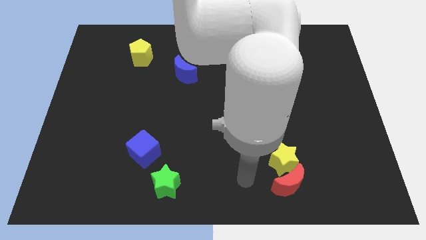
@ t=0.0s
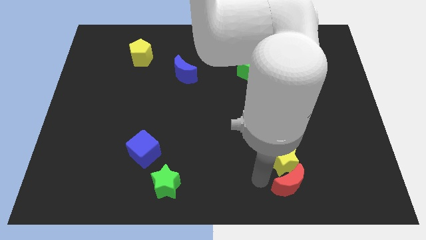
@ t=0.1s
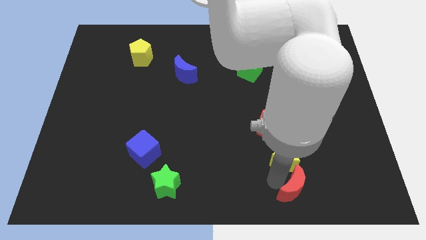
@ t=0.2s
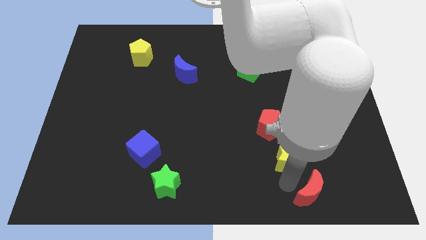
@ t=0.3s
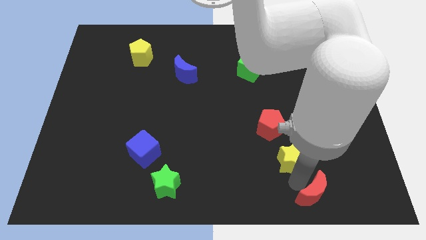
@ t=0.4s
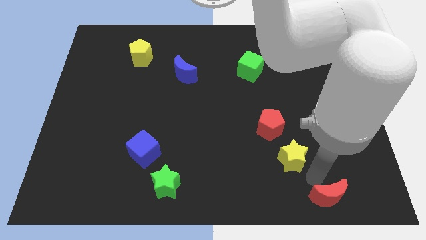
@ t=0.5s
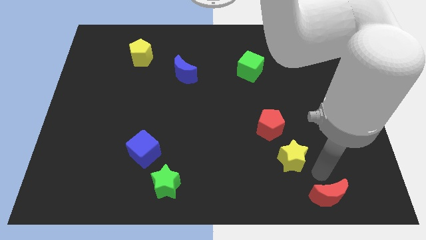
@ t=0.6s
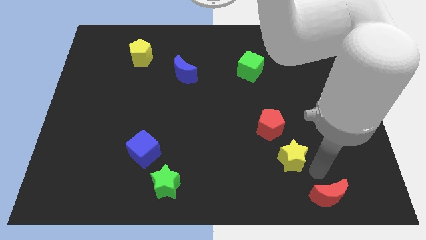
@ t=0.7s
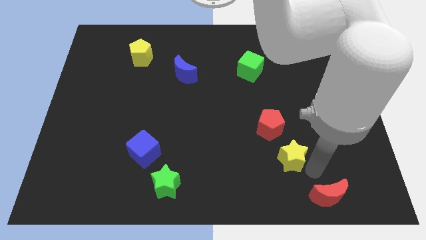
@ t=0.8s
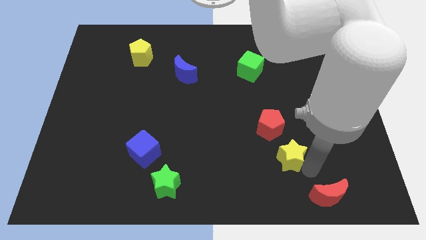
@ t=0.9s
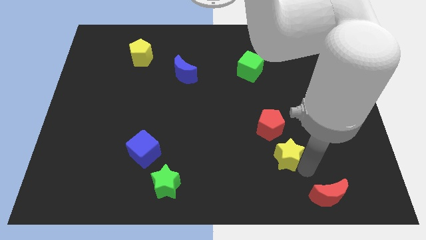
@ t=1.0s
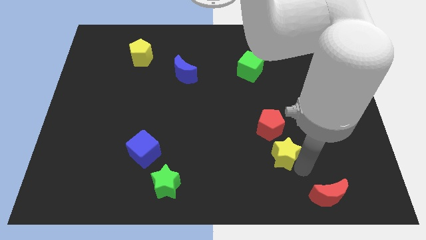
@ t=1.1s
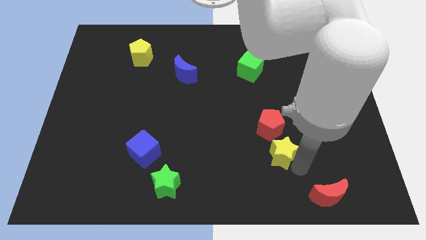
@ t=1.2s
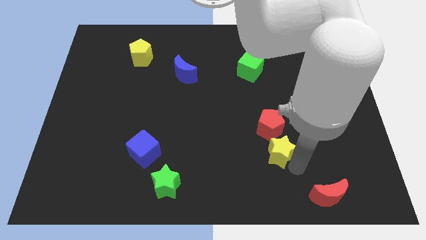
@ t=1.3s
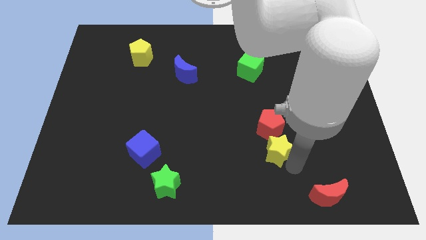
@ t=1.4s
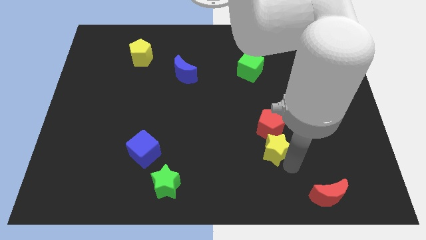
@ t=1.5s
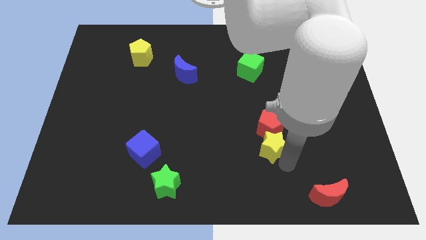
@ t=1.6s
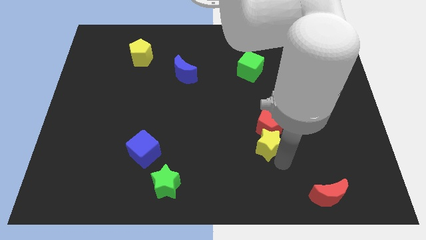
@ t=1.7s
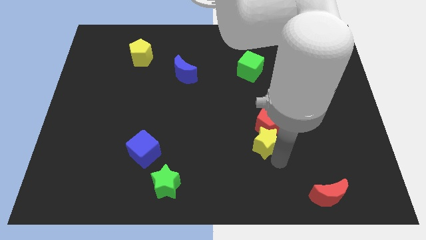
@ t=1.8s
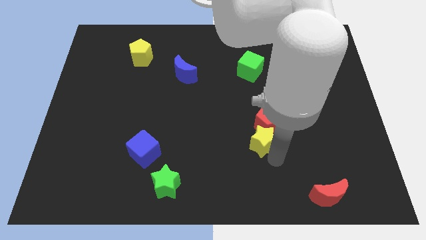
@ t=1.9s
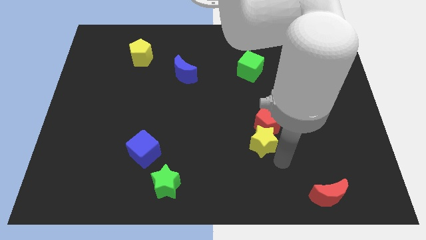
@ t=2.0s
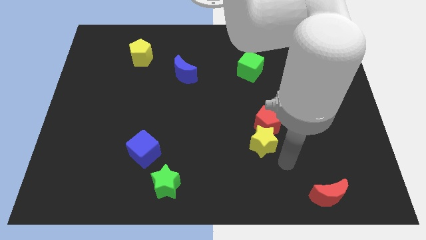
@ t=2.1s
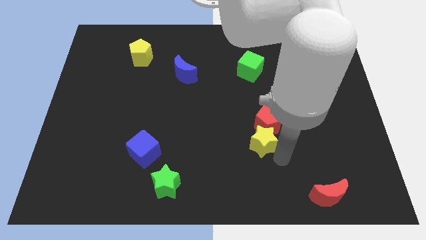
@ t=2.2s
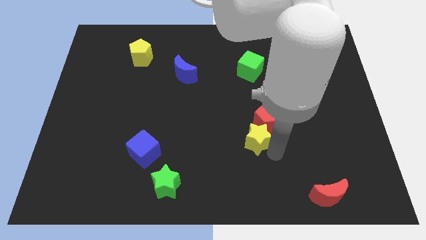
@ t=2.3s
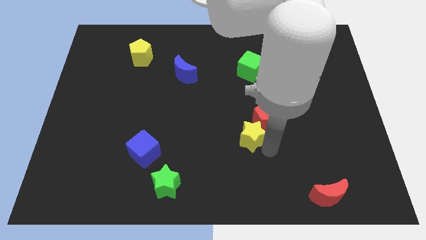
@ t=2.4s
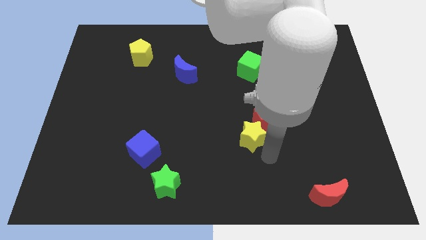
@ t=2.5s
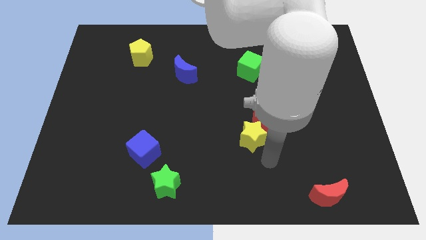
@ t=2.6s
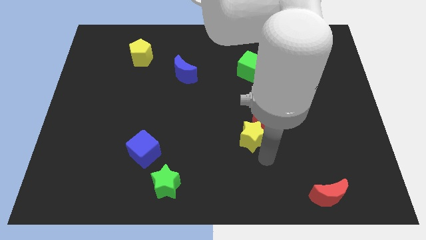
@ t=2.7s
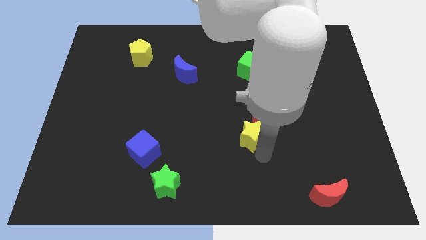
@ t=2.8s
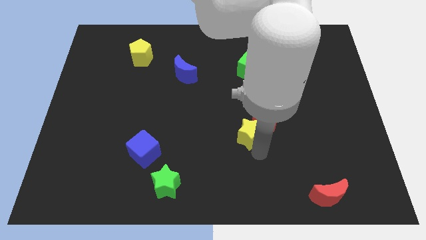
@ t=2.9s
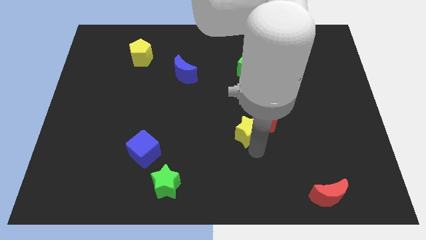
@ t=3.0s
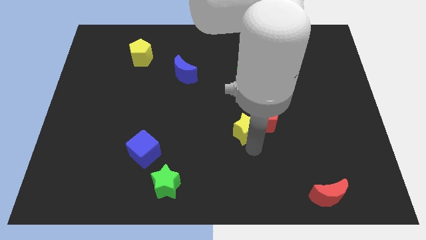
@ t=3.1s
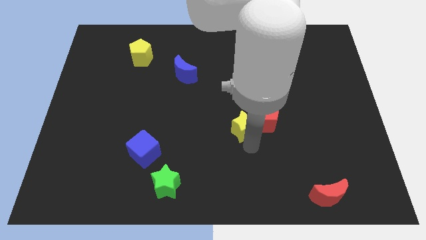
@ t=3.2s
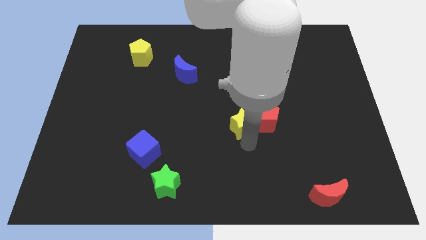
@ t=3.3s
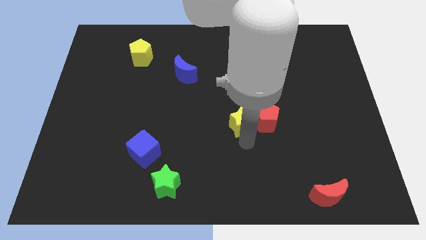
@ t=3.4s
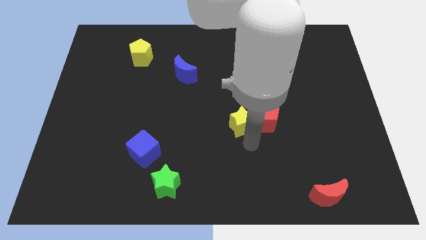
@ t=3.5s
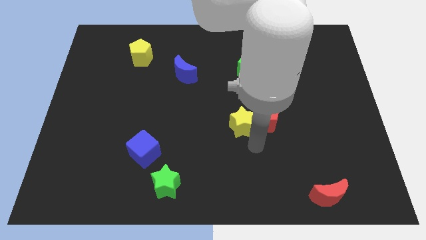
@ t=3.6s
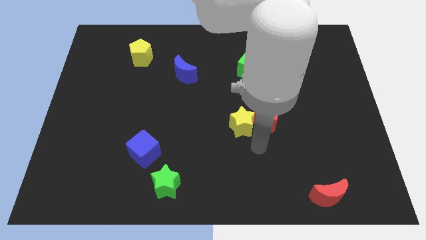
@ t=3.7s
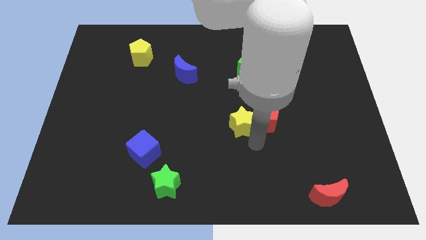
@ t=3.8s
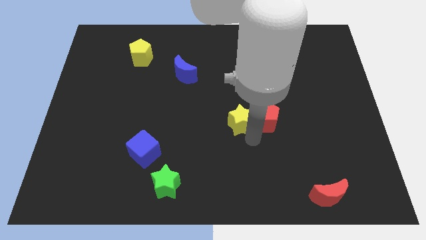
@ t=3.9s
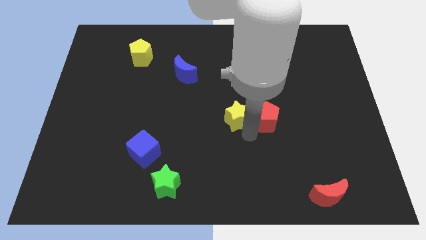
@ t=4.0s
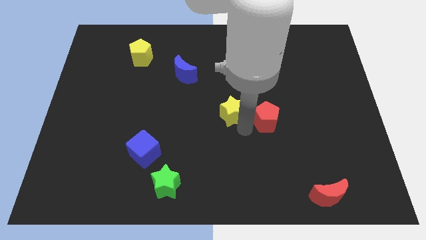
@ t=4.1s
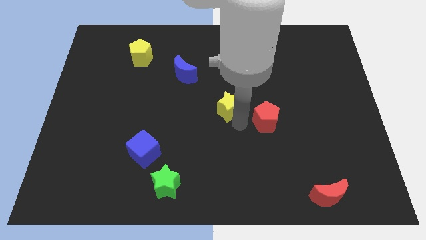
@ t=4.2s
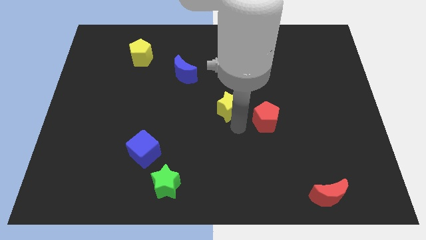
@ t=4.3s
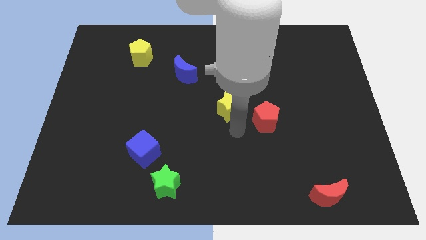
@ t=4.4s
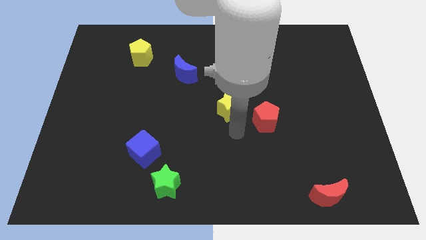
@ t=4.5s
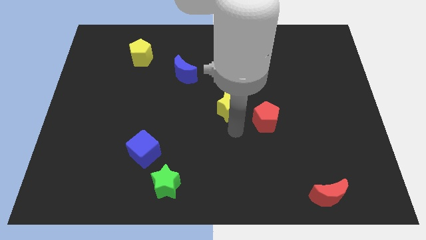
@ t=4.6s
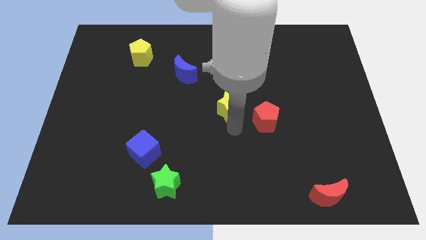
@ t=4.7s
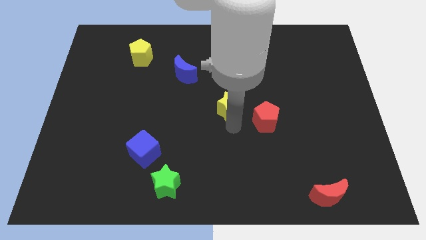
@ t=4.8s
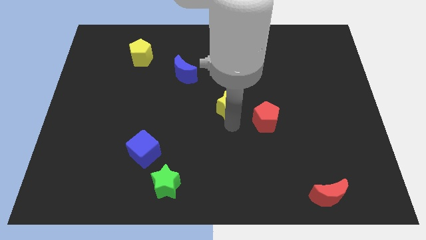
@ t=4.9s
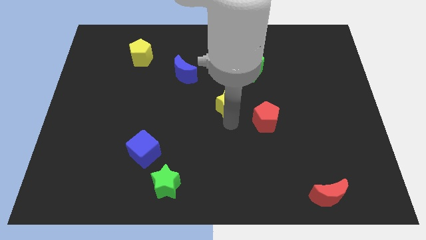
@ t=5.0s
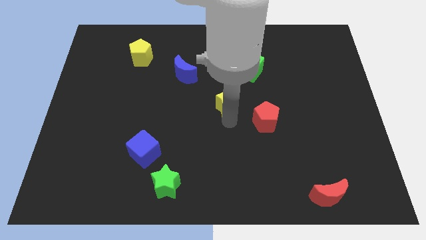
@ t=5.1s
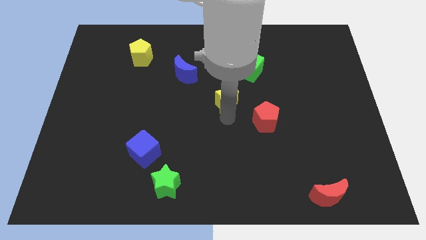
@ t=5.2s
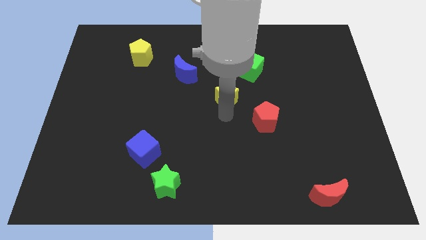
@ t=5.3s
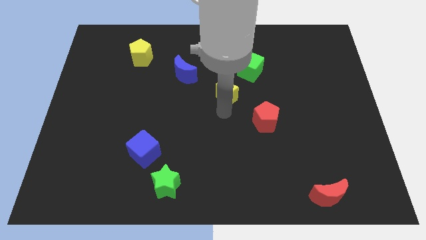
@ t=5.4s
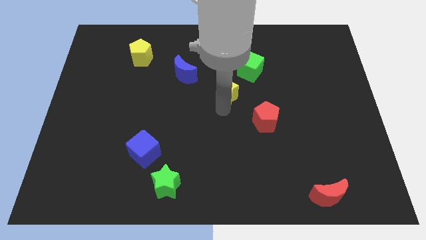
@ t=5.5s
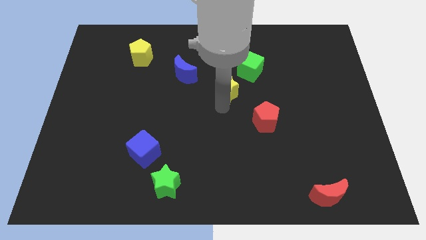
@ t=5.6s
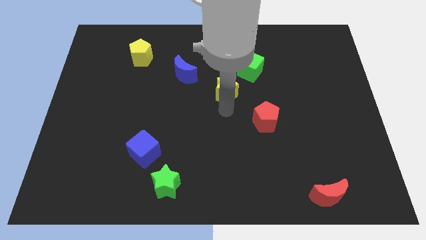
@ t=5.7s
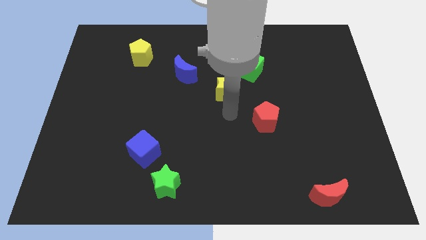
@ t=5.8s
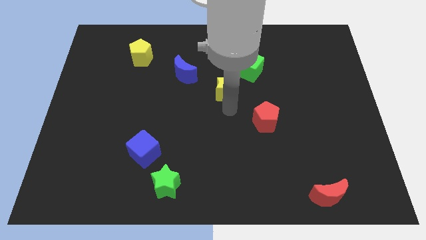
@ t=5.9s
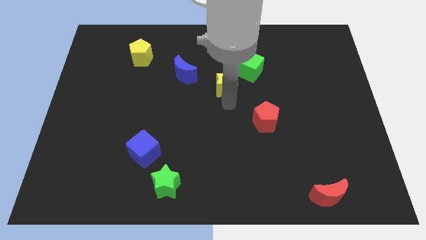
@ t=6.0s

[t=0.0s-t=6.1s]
push the yellow star to the right of the blue moon

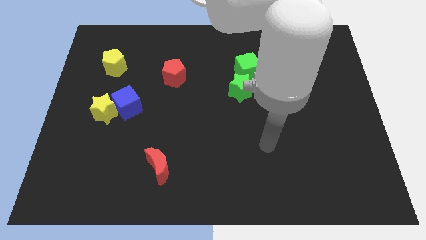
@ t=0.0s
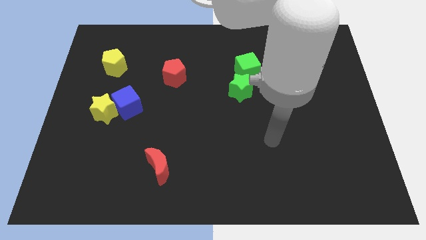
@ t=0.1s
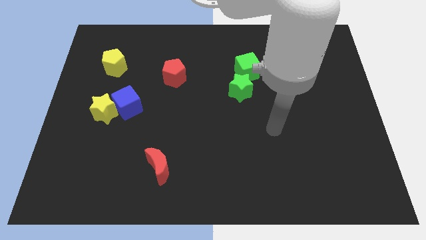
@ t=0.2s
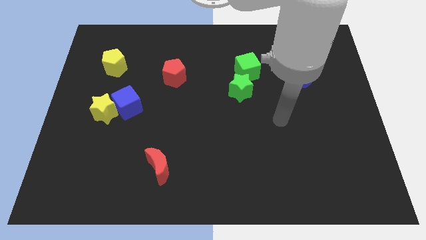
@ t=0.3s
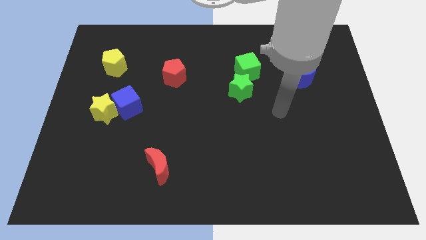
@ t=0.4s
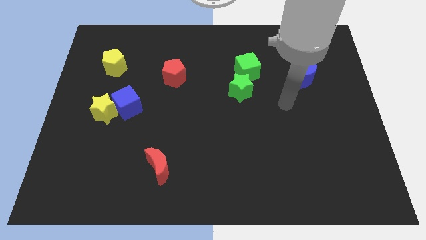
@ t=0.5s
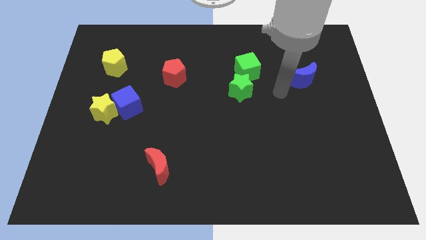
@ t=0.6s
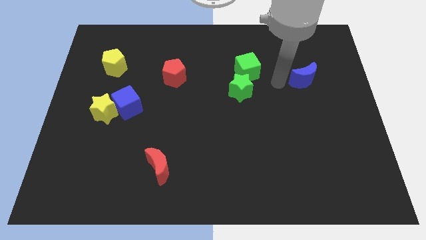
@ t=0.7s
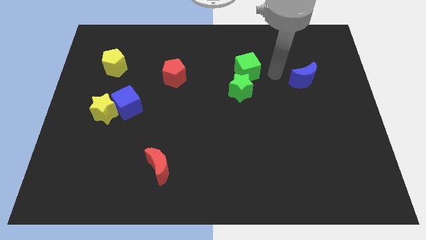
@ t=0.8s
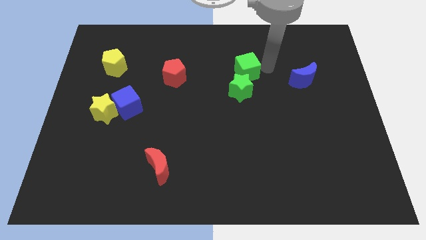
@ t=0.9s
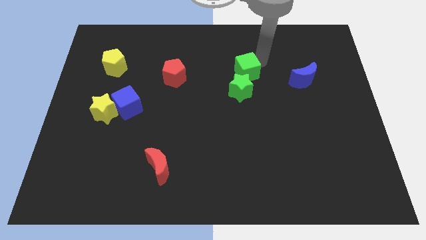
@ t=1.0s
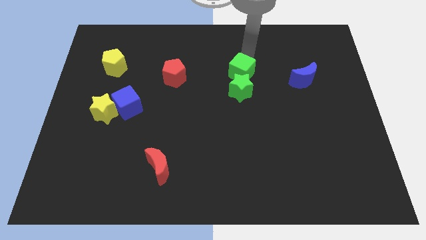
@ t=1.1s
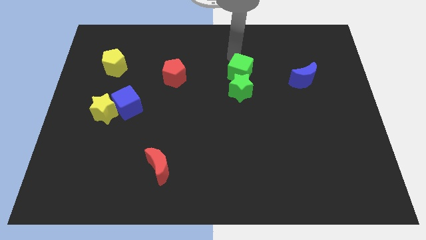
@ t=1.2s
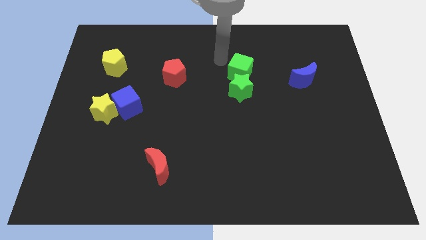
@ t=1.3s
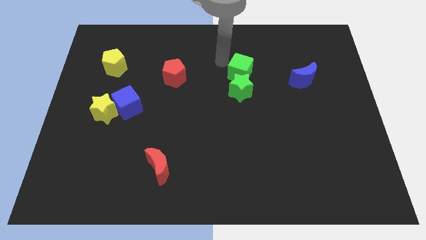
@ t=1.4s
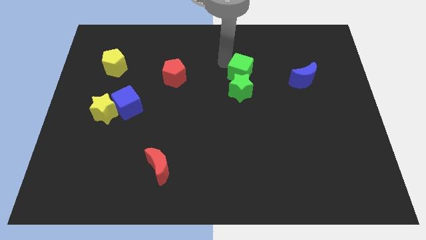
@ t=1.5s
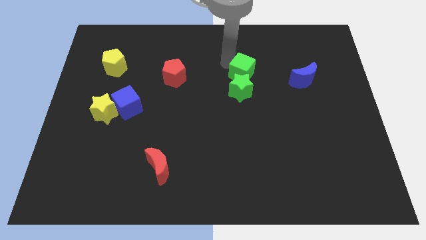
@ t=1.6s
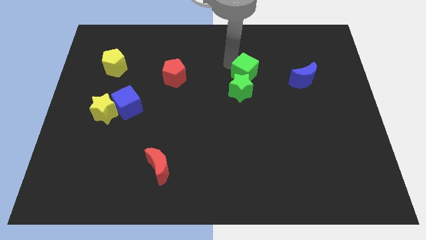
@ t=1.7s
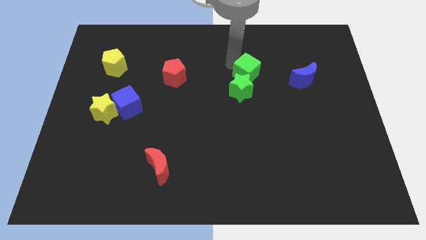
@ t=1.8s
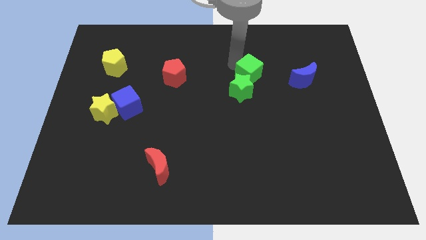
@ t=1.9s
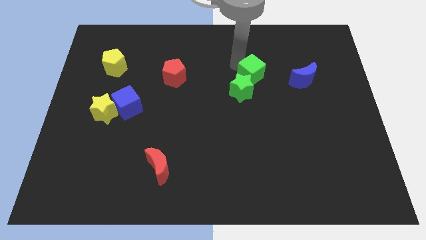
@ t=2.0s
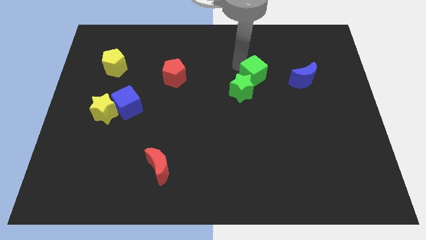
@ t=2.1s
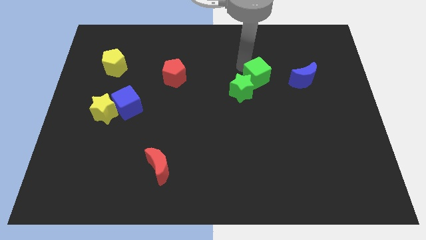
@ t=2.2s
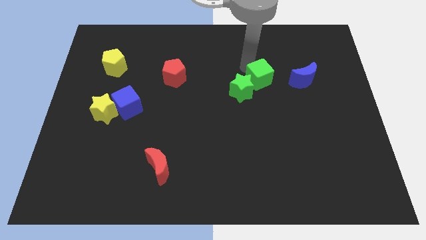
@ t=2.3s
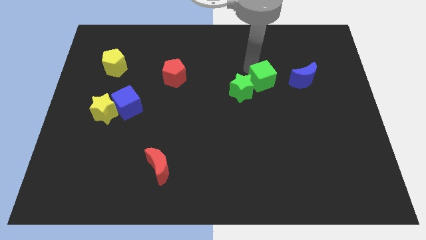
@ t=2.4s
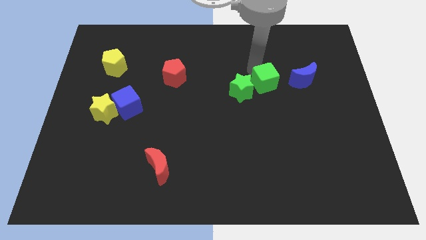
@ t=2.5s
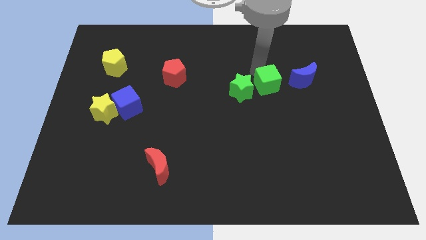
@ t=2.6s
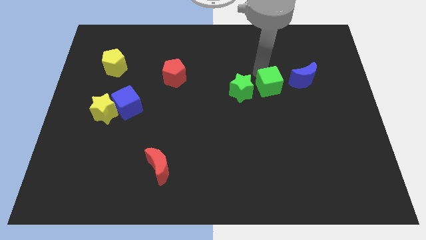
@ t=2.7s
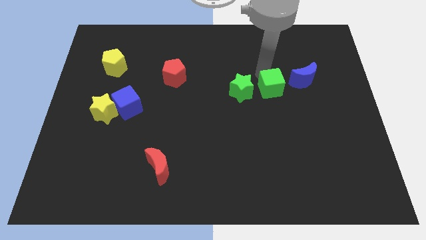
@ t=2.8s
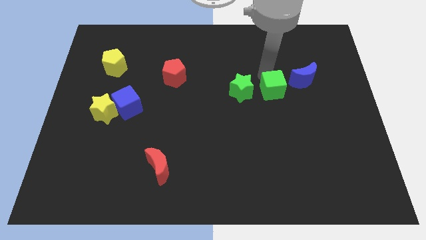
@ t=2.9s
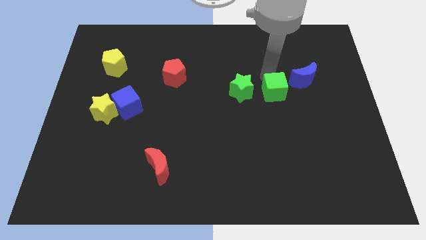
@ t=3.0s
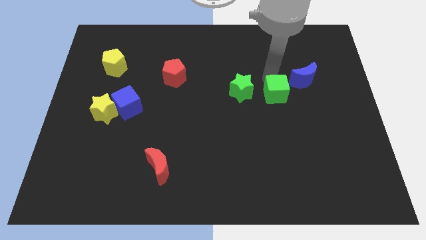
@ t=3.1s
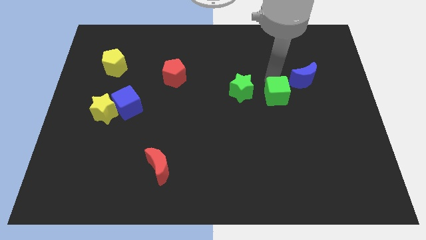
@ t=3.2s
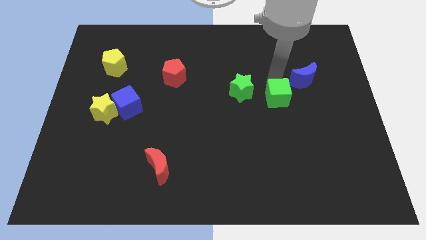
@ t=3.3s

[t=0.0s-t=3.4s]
push the green cube to the bottom right of the green star
